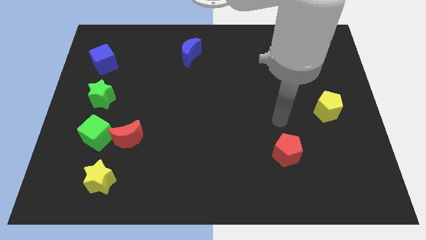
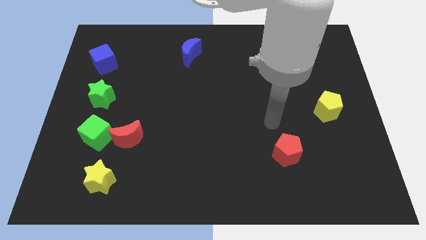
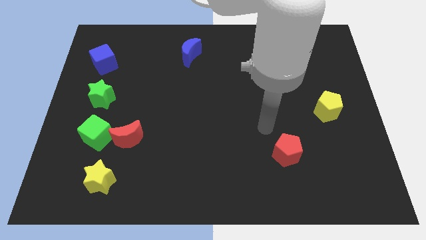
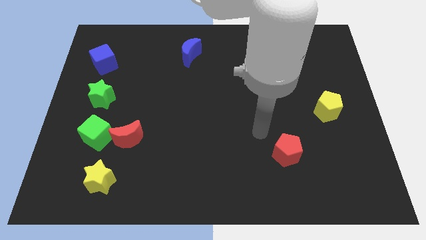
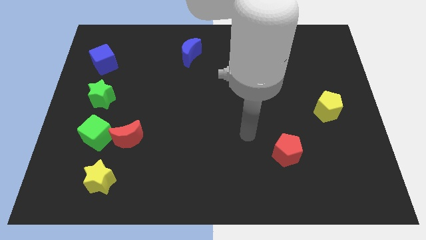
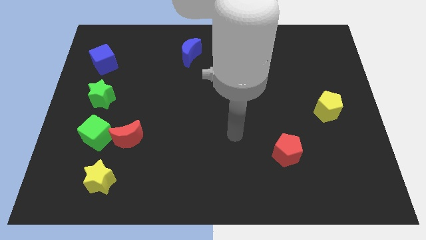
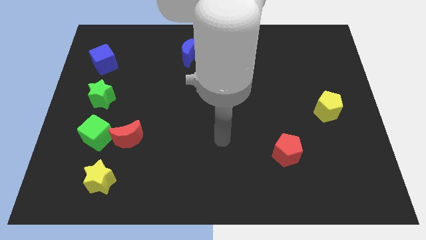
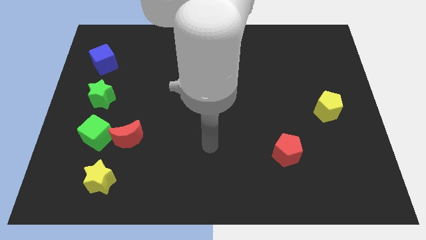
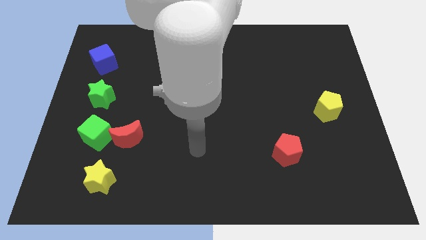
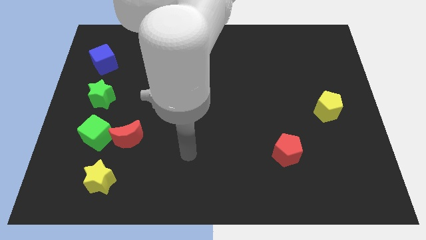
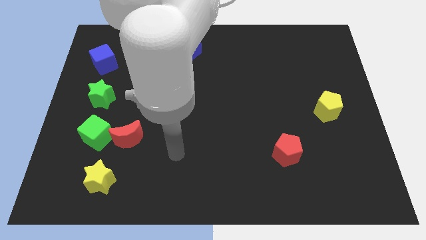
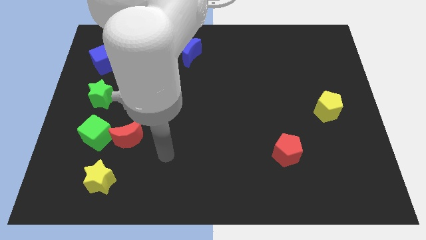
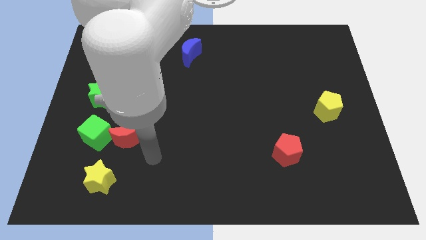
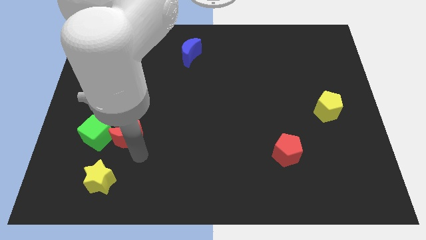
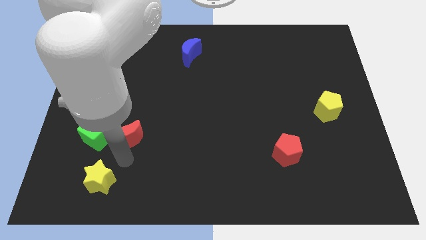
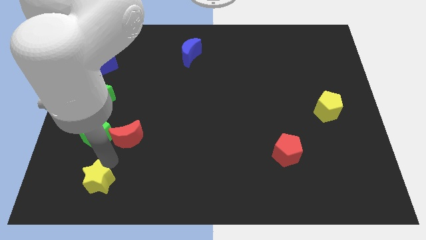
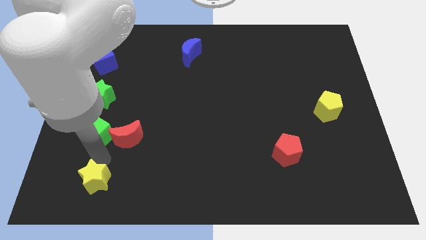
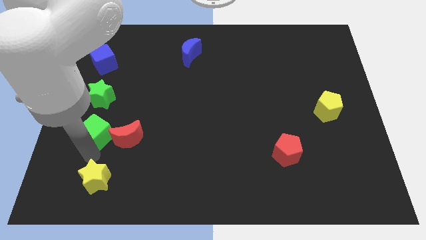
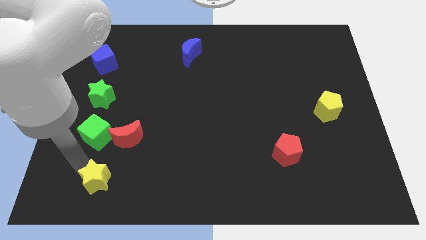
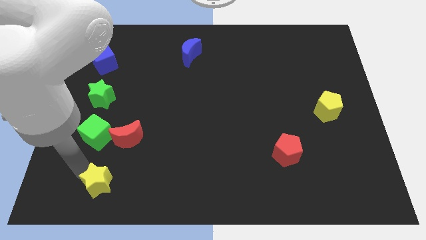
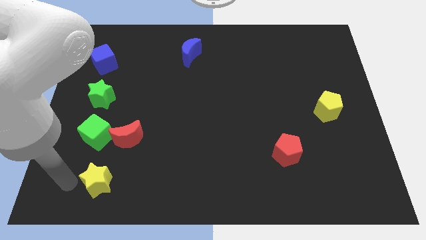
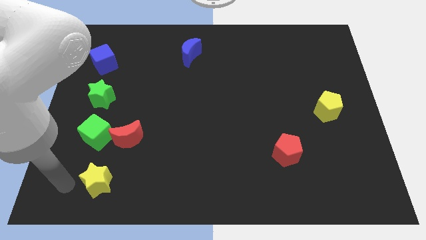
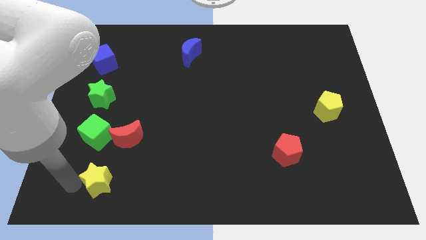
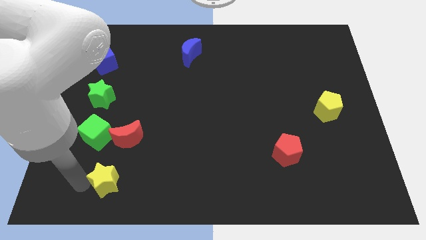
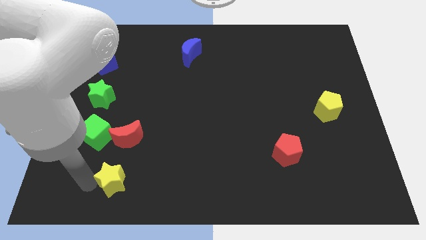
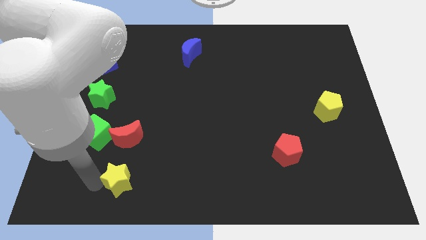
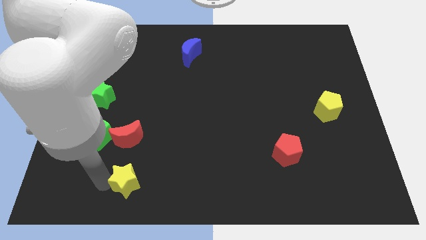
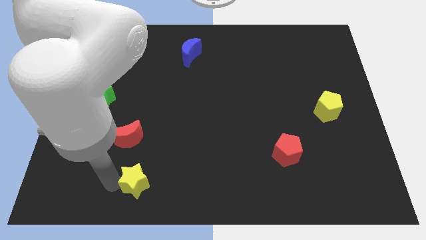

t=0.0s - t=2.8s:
push the yellow star a bit right

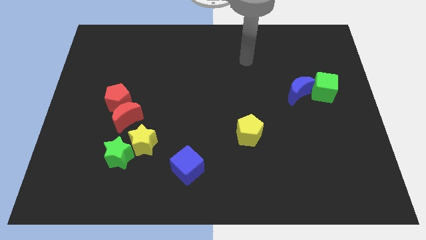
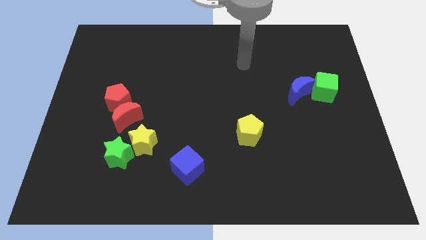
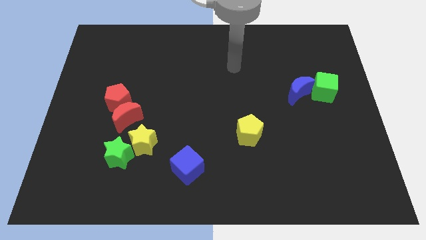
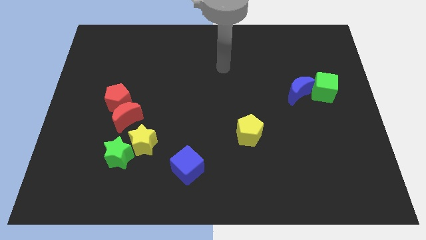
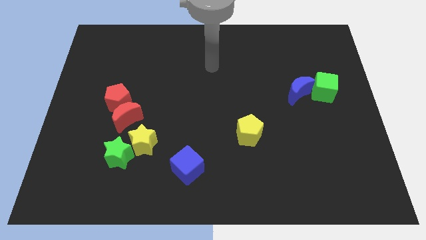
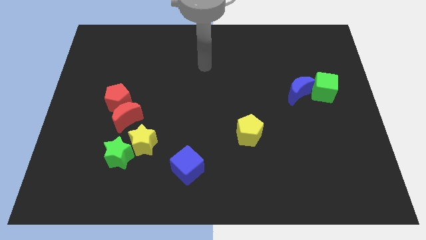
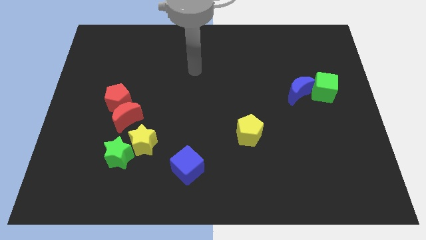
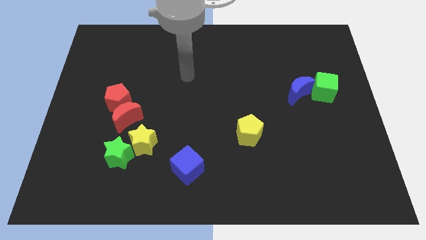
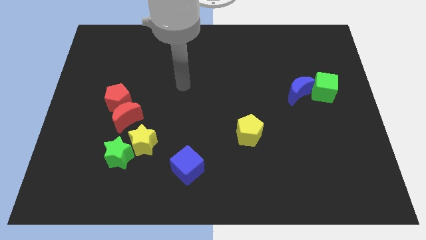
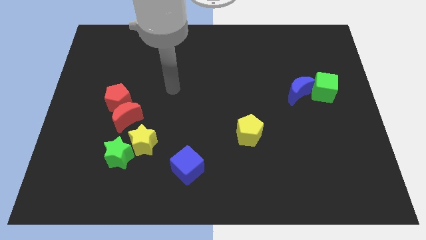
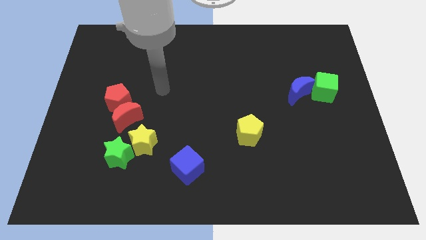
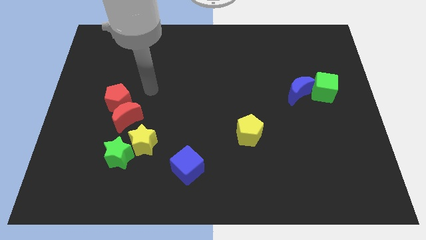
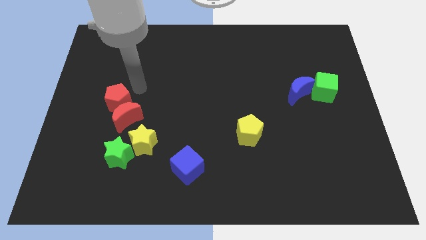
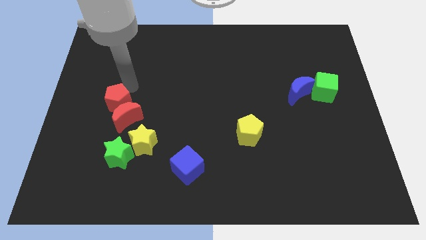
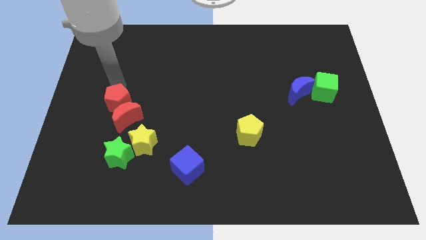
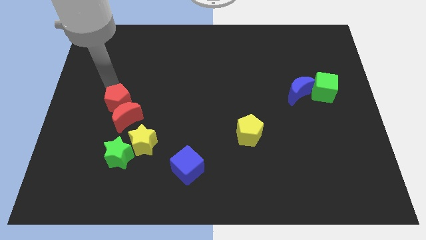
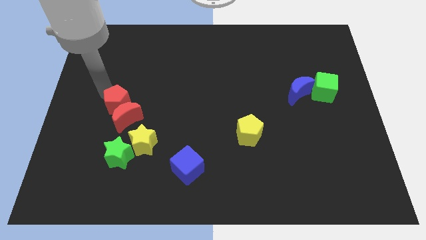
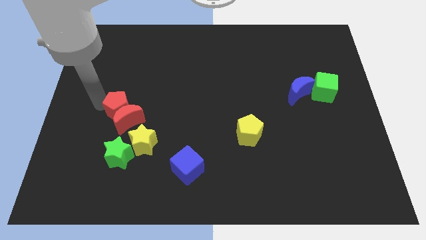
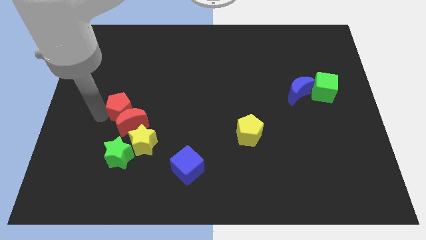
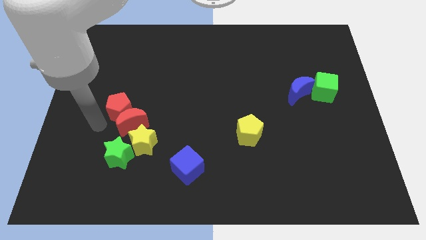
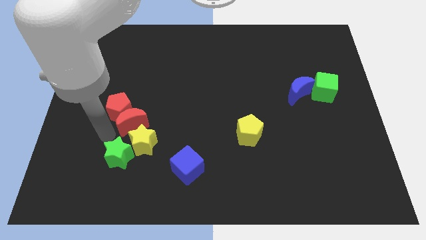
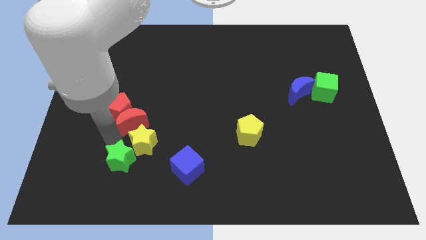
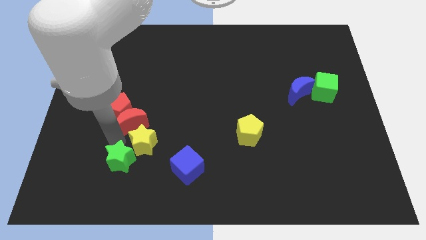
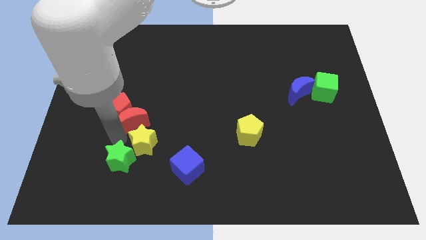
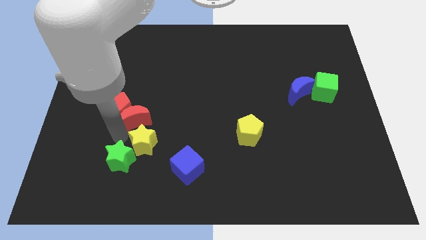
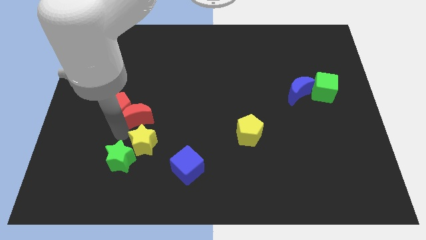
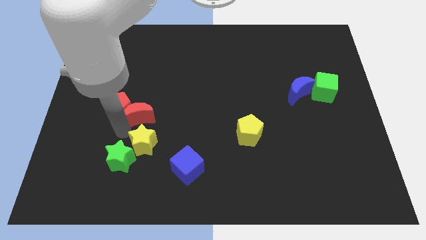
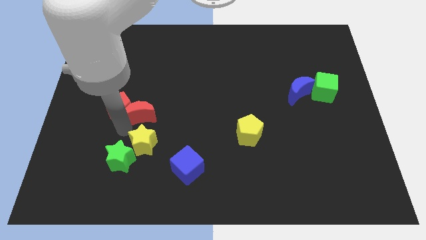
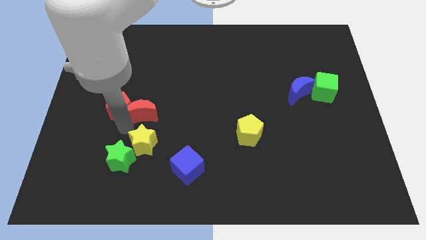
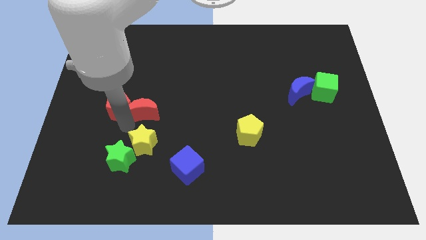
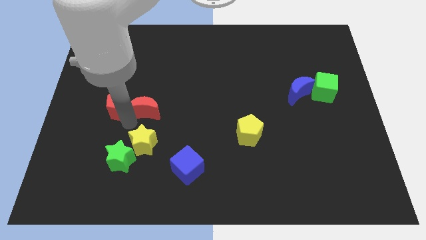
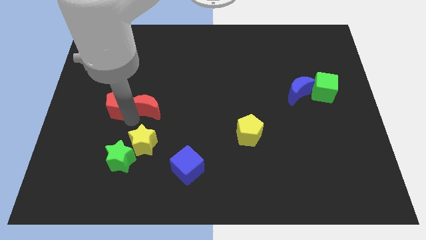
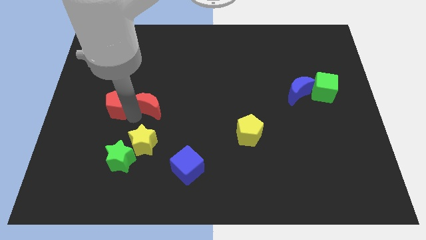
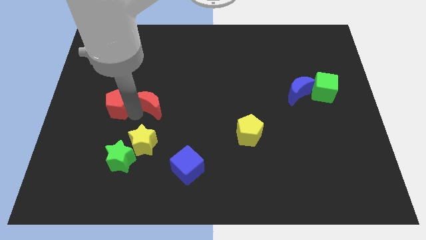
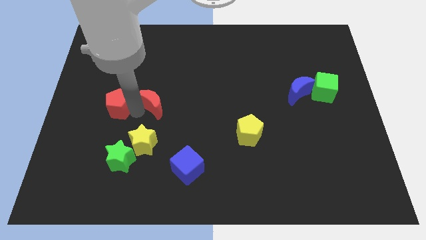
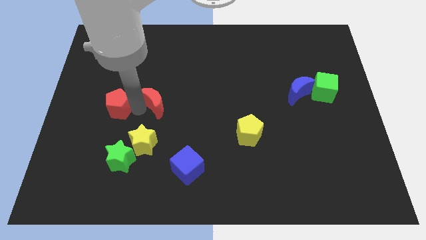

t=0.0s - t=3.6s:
move the red moon a bit up and then to the right

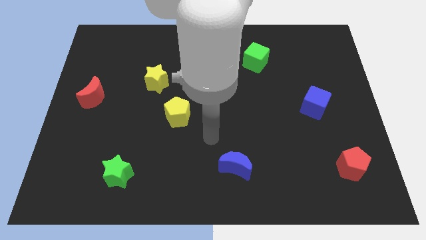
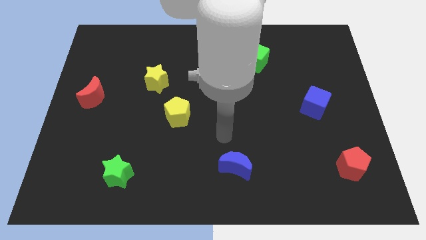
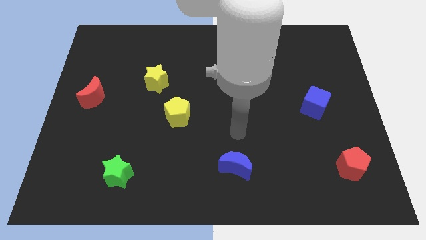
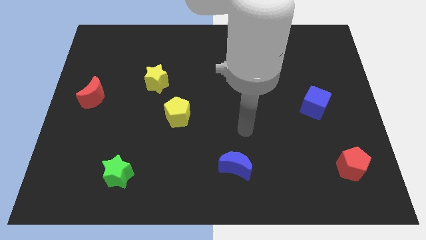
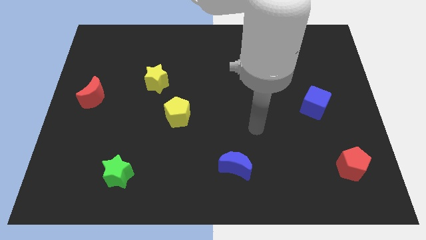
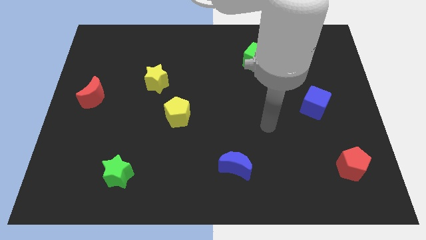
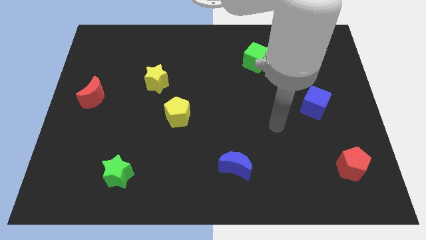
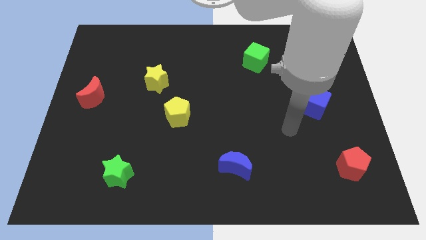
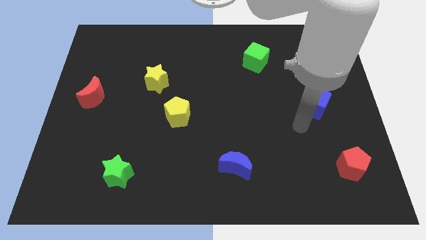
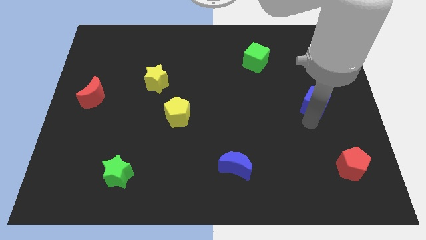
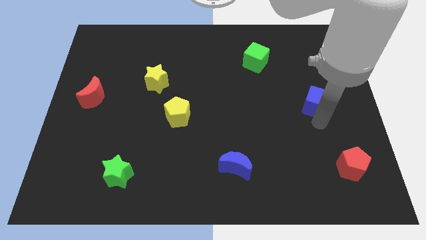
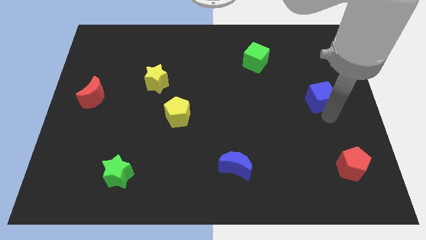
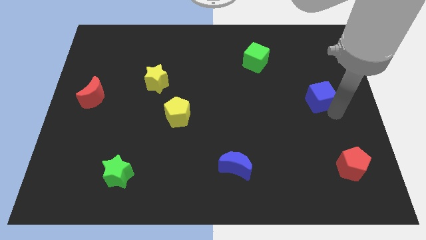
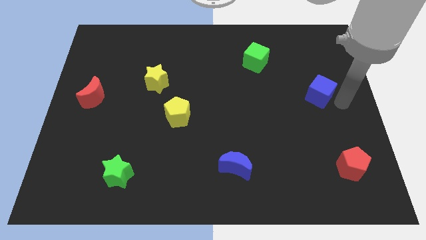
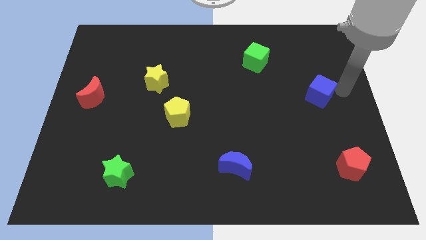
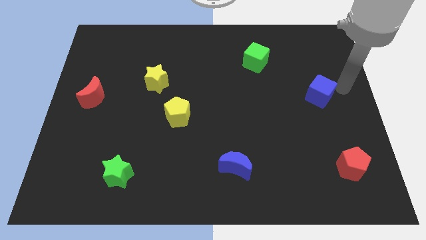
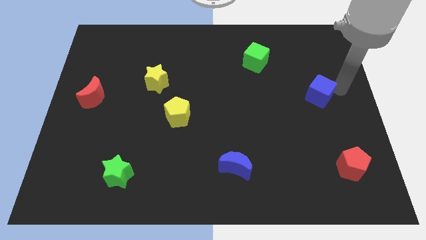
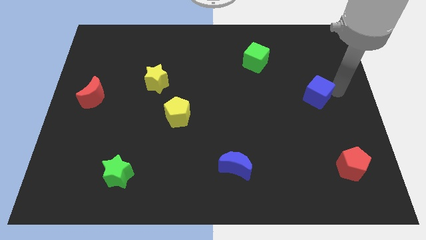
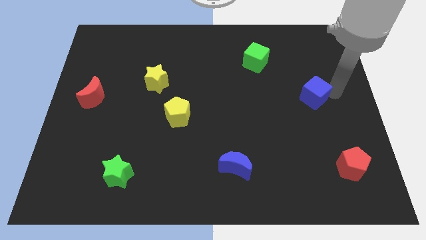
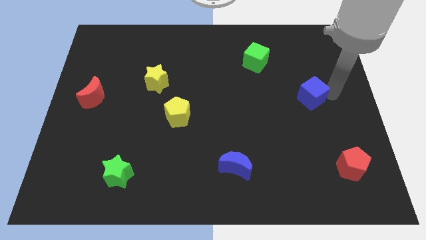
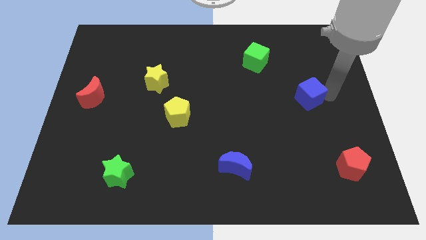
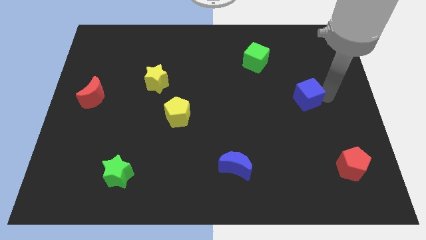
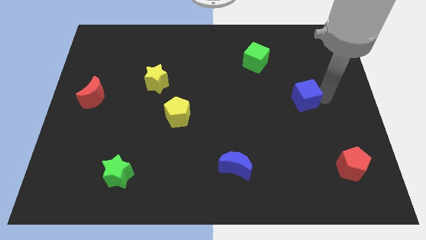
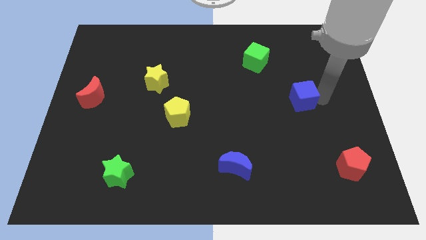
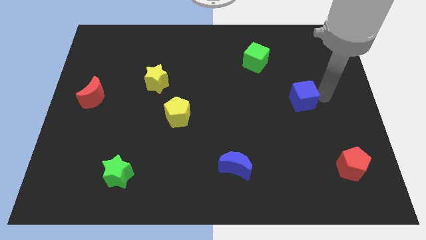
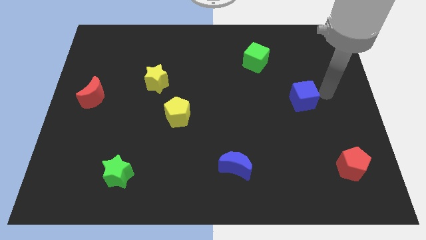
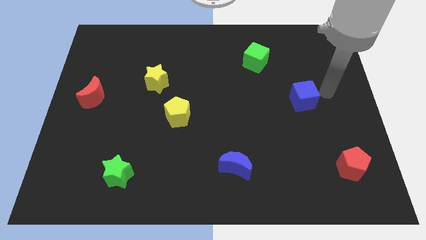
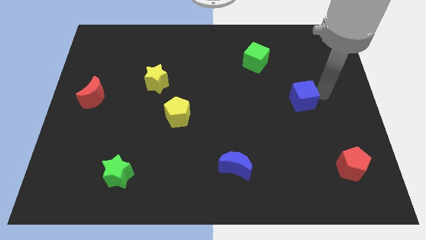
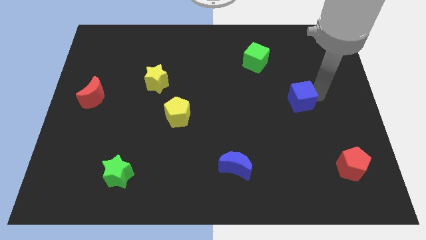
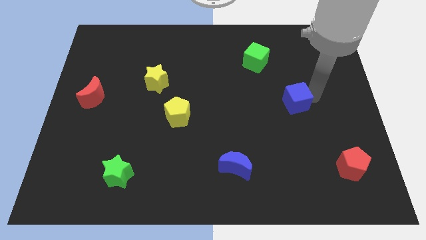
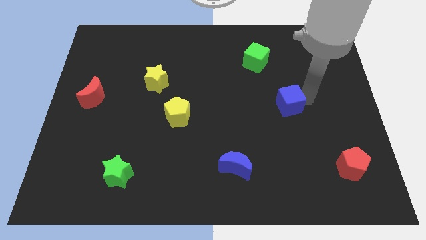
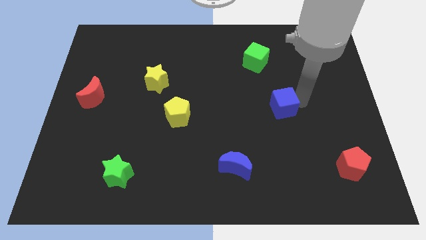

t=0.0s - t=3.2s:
slightly move the blue cube to the left
